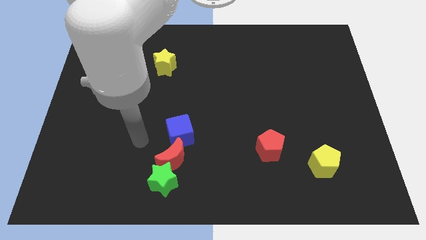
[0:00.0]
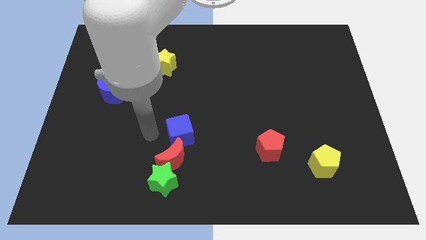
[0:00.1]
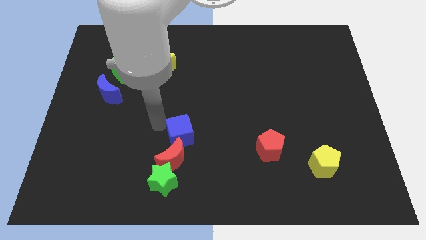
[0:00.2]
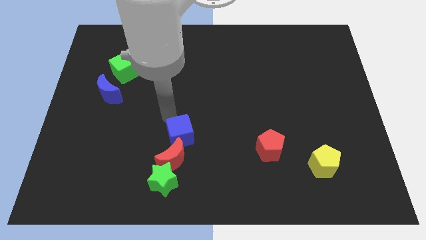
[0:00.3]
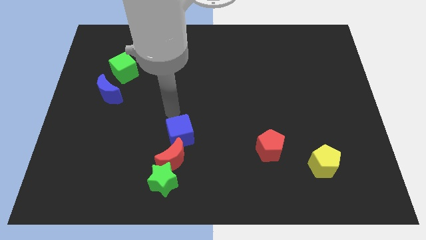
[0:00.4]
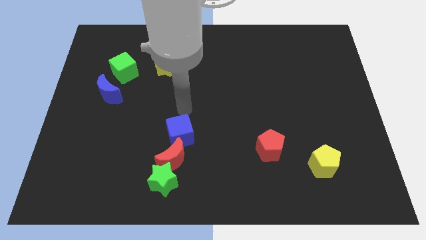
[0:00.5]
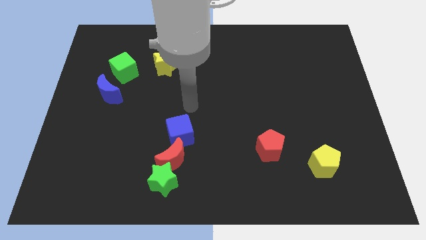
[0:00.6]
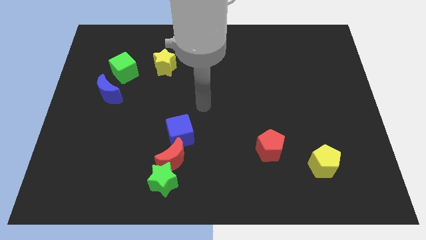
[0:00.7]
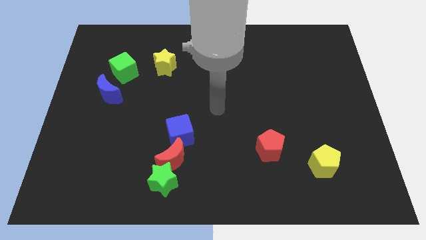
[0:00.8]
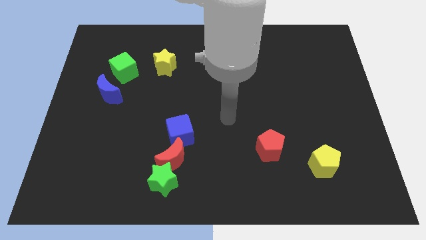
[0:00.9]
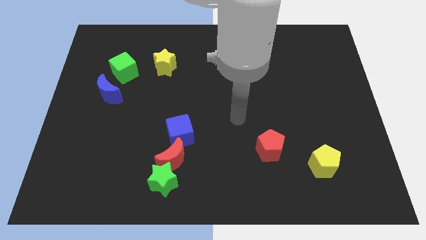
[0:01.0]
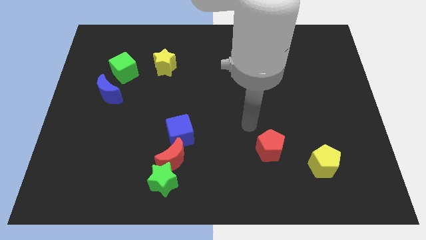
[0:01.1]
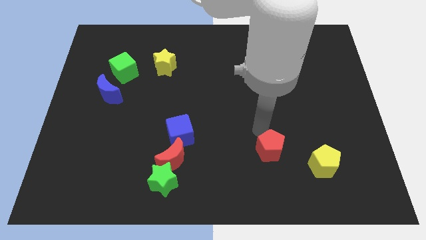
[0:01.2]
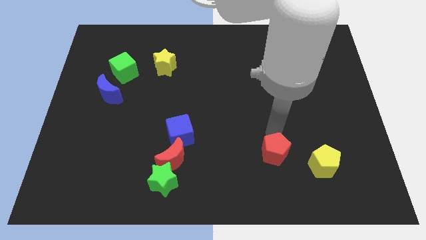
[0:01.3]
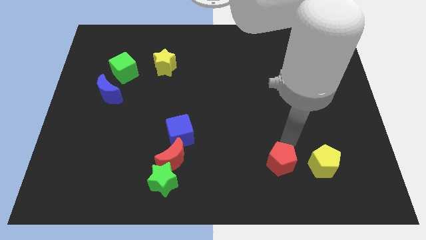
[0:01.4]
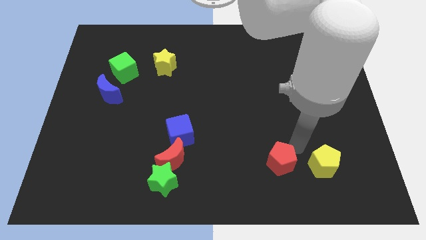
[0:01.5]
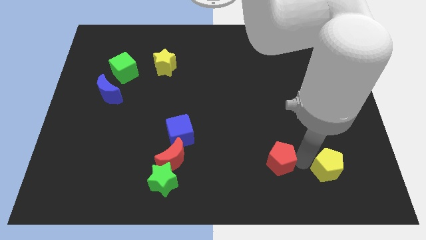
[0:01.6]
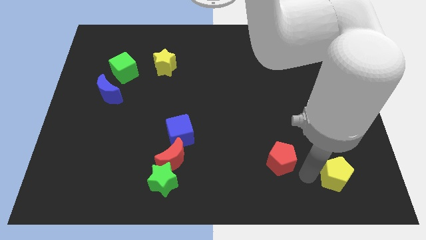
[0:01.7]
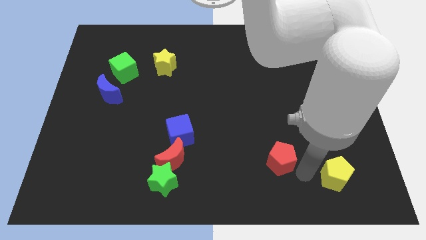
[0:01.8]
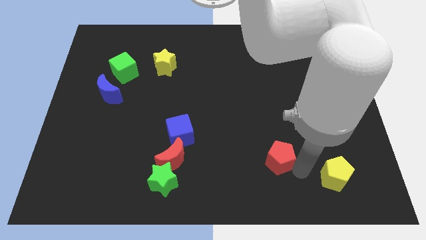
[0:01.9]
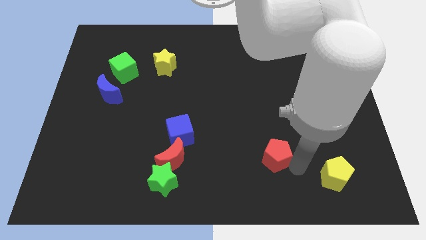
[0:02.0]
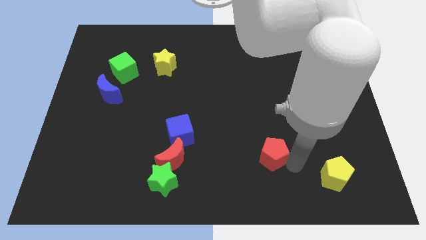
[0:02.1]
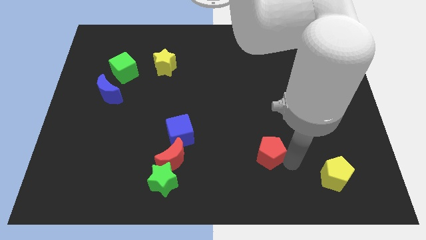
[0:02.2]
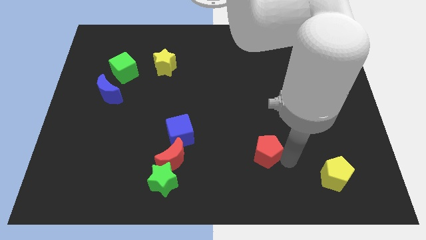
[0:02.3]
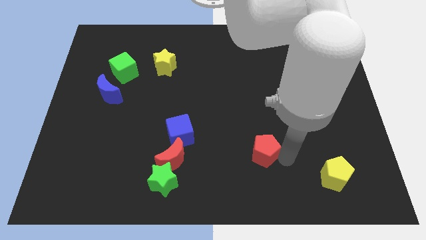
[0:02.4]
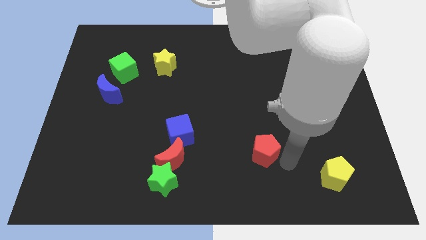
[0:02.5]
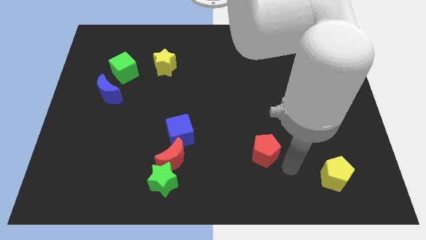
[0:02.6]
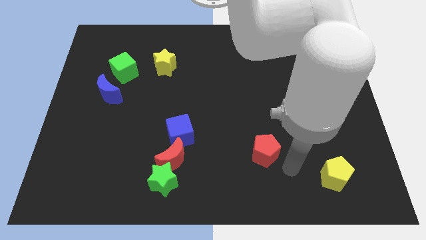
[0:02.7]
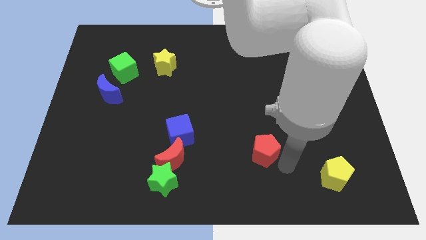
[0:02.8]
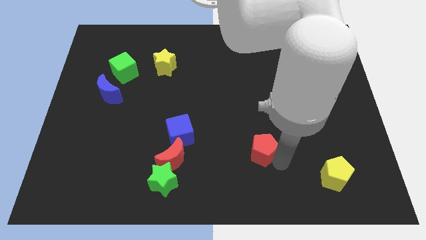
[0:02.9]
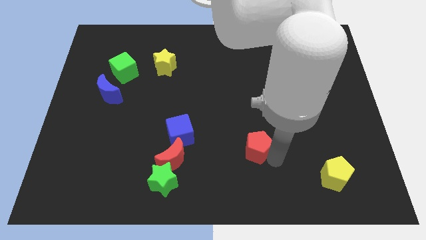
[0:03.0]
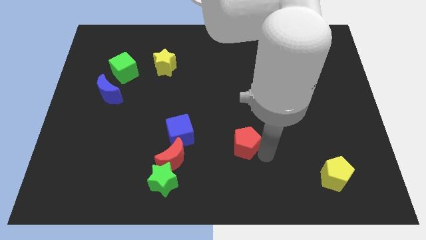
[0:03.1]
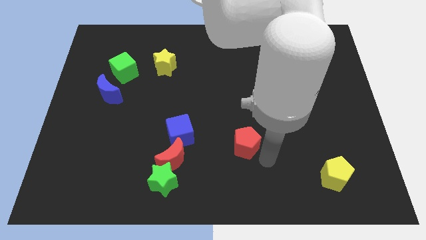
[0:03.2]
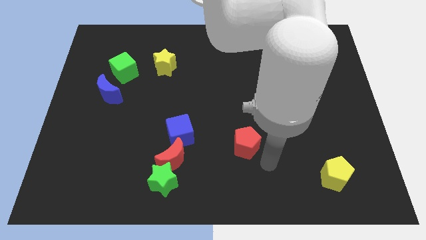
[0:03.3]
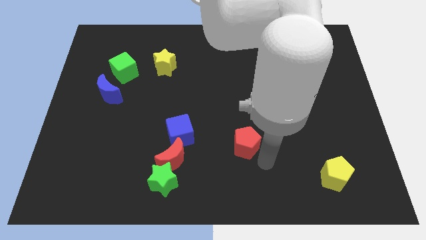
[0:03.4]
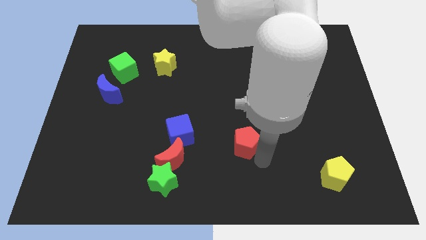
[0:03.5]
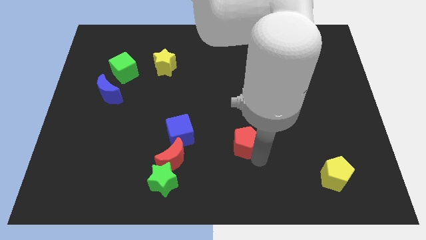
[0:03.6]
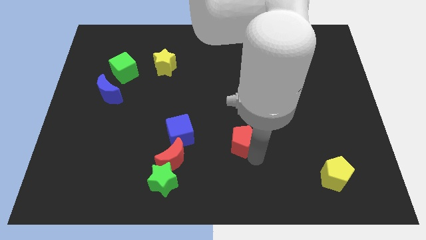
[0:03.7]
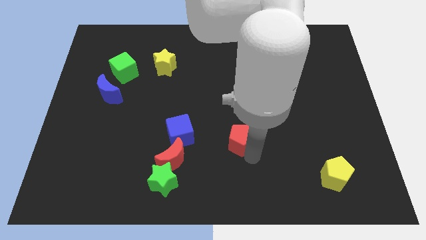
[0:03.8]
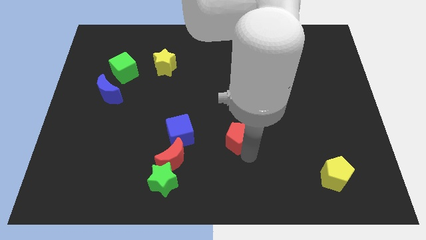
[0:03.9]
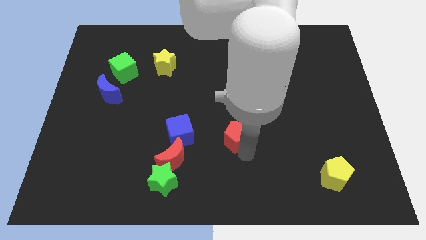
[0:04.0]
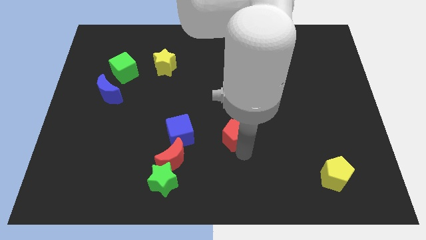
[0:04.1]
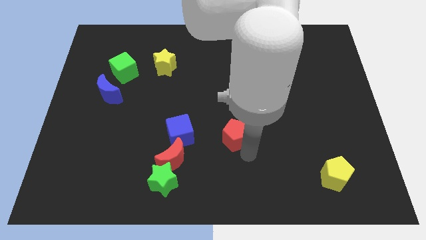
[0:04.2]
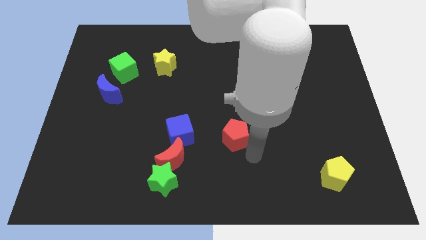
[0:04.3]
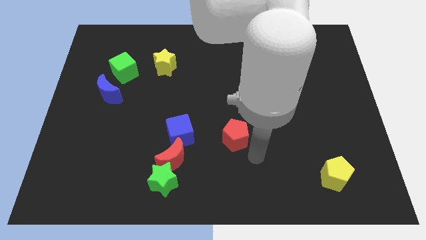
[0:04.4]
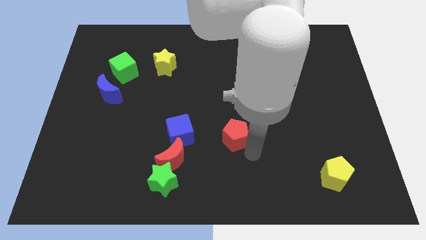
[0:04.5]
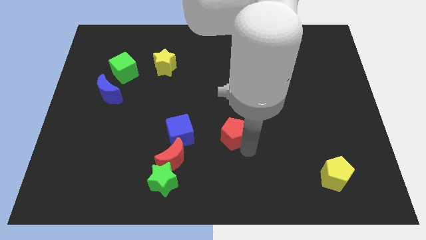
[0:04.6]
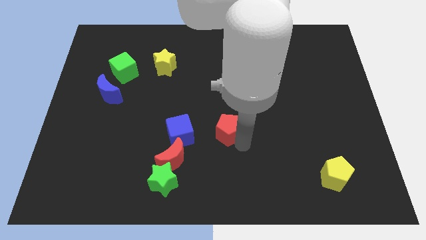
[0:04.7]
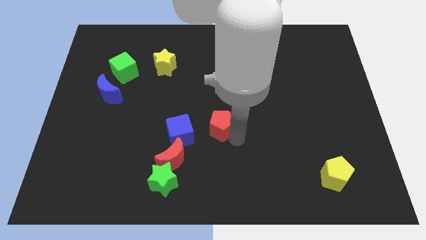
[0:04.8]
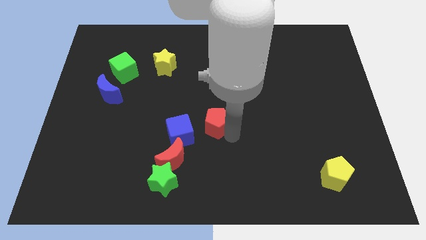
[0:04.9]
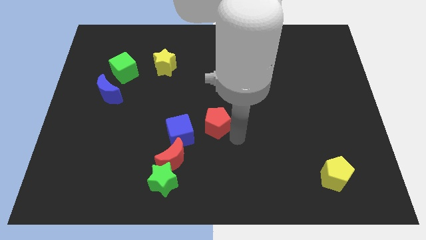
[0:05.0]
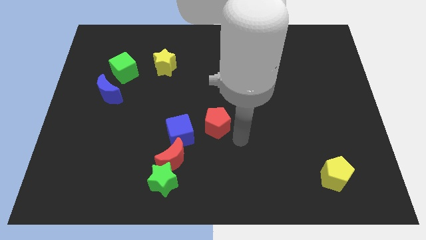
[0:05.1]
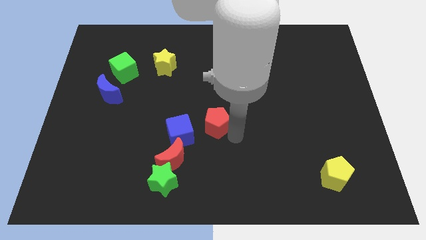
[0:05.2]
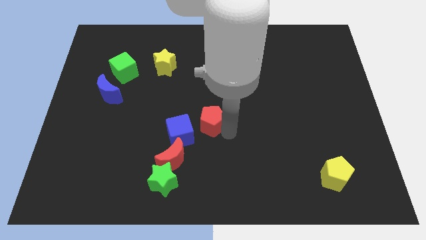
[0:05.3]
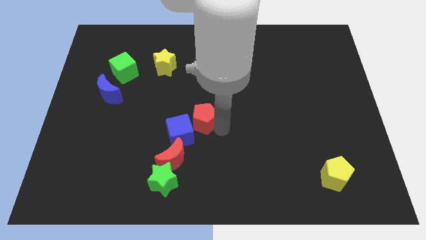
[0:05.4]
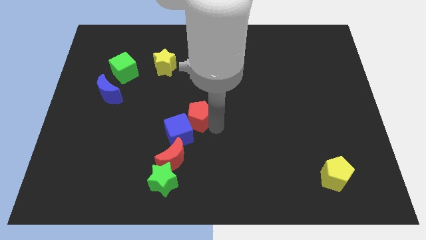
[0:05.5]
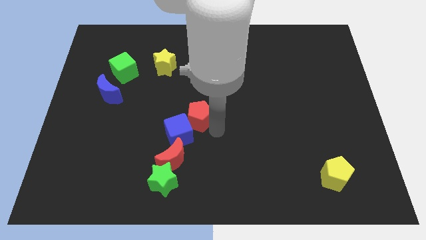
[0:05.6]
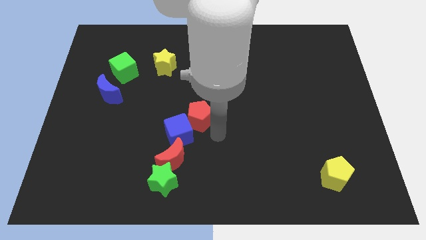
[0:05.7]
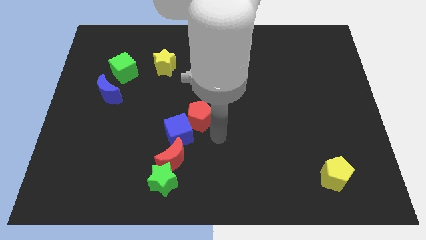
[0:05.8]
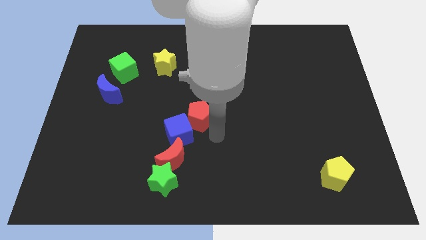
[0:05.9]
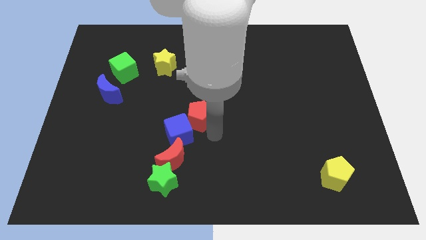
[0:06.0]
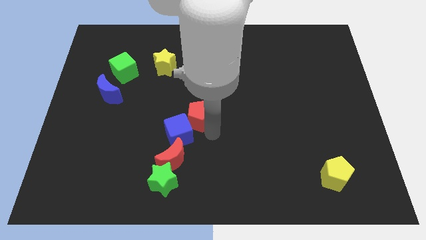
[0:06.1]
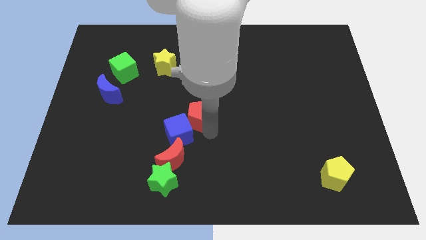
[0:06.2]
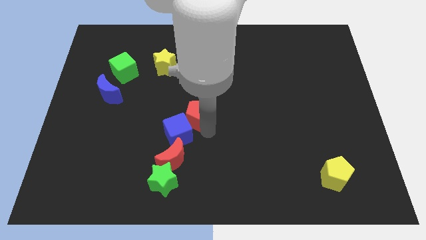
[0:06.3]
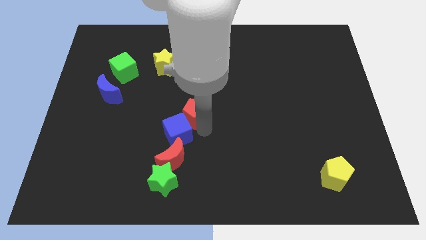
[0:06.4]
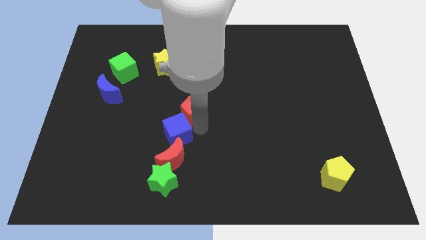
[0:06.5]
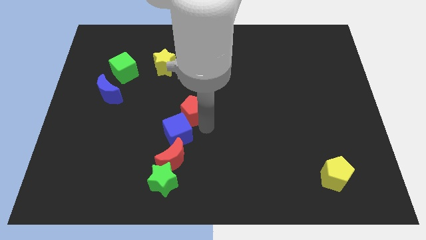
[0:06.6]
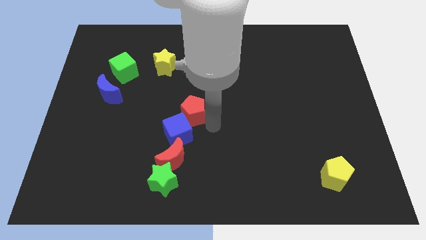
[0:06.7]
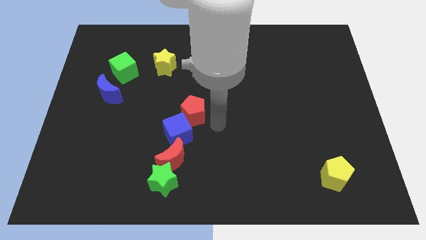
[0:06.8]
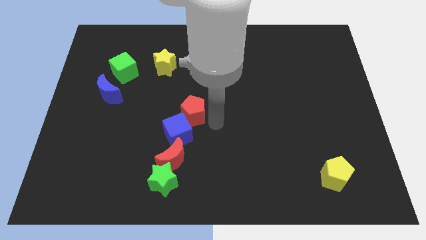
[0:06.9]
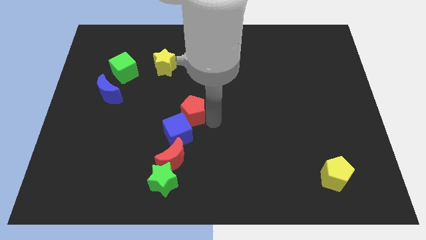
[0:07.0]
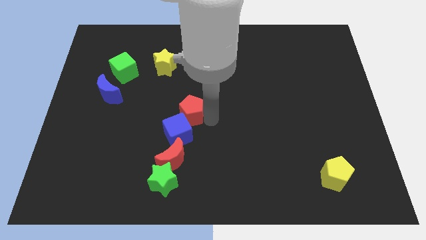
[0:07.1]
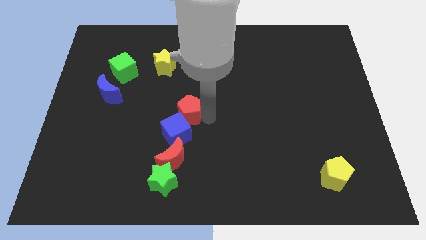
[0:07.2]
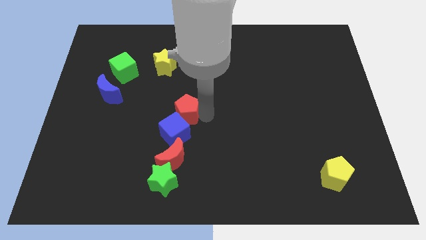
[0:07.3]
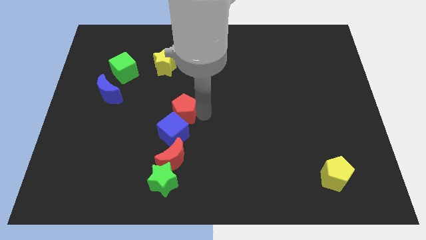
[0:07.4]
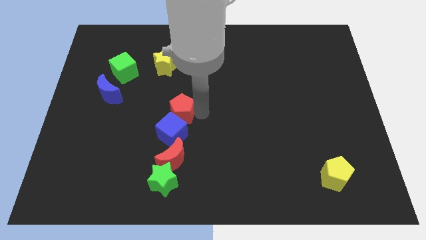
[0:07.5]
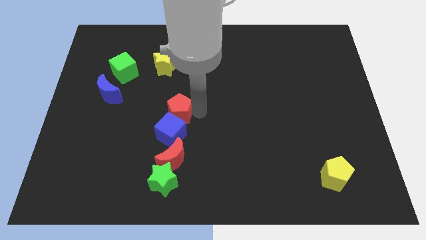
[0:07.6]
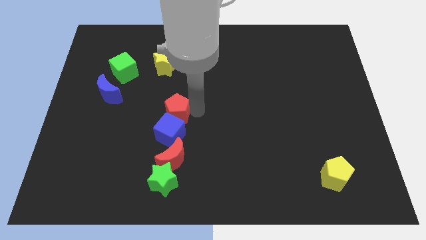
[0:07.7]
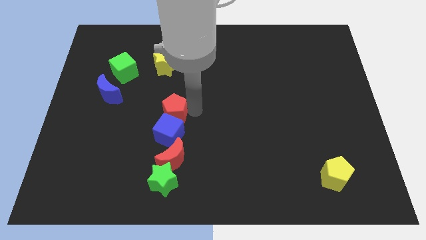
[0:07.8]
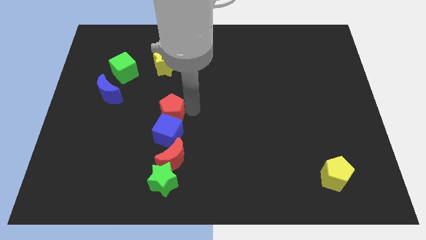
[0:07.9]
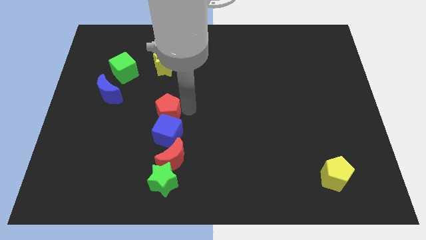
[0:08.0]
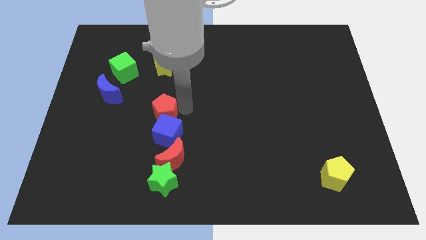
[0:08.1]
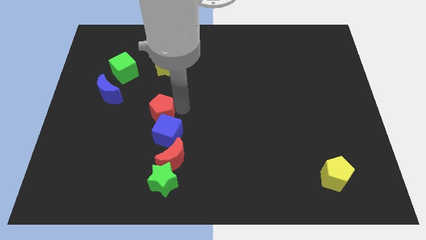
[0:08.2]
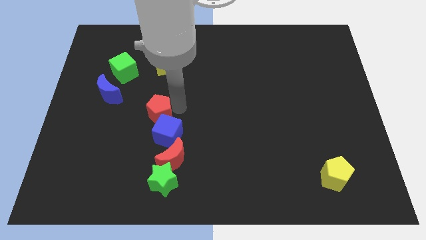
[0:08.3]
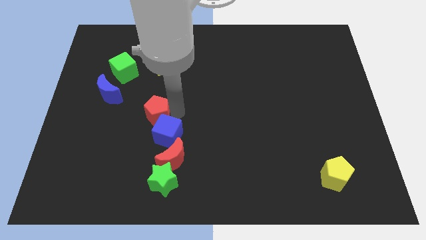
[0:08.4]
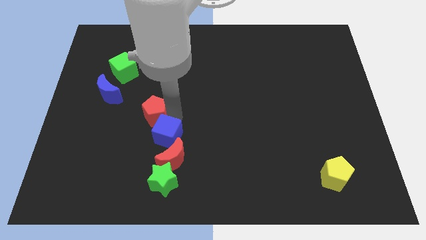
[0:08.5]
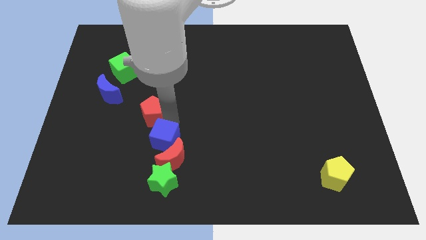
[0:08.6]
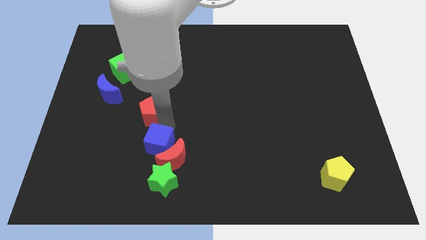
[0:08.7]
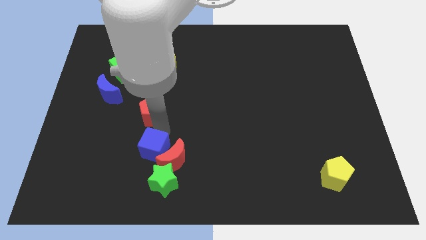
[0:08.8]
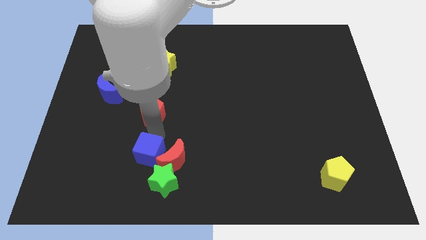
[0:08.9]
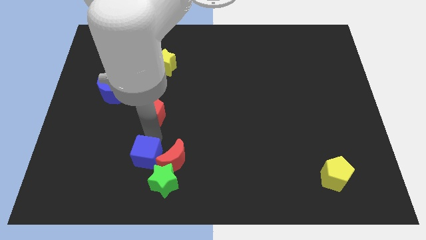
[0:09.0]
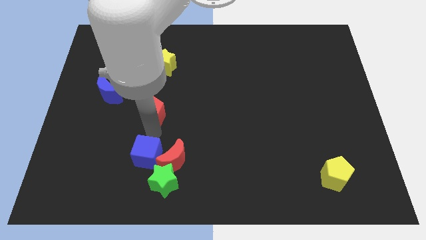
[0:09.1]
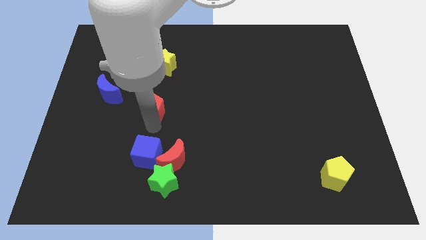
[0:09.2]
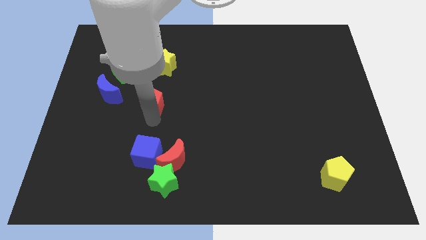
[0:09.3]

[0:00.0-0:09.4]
move the red pentagon just right of the blue moon
